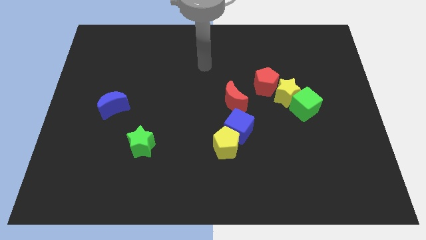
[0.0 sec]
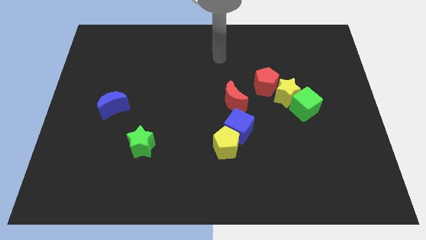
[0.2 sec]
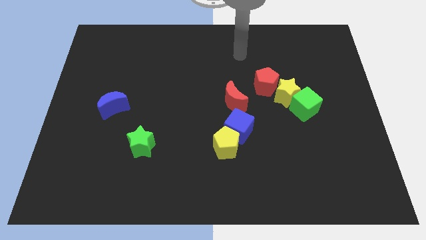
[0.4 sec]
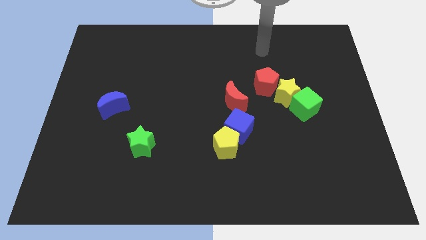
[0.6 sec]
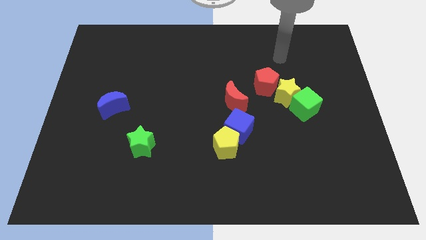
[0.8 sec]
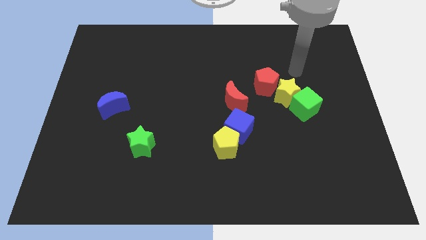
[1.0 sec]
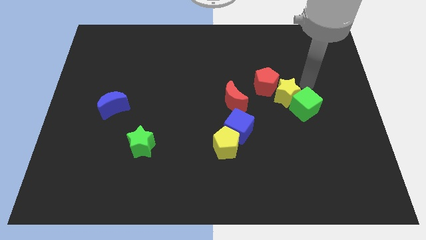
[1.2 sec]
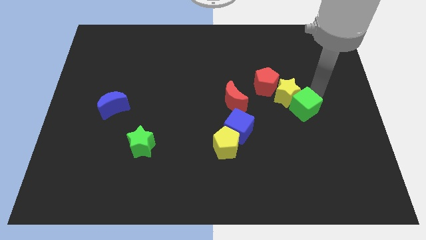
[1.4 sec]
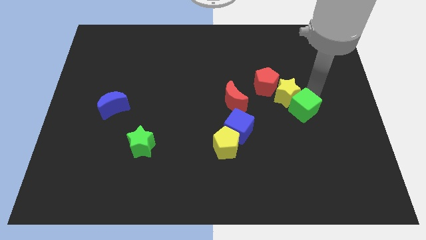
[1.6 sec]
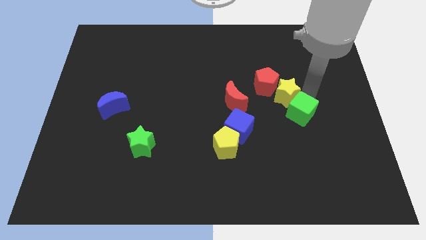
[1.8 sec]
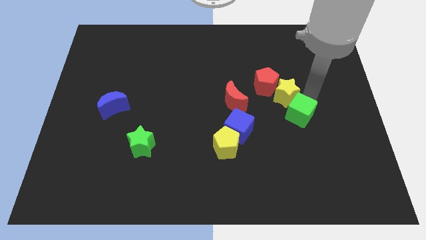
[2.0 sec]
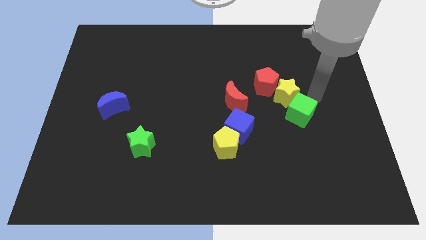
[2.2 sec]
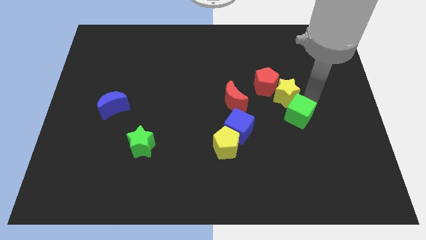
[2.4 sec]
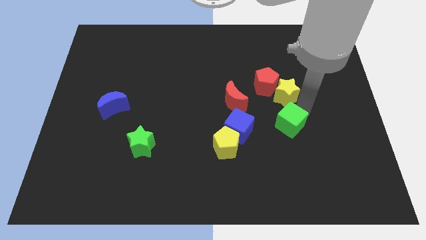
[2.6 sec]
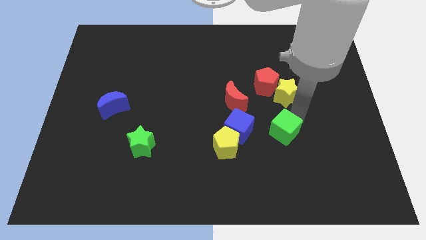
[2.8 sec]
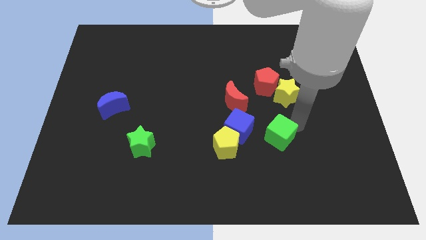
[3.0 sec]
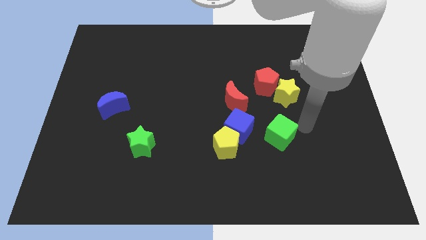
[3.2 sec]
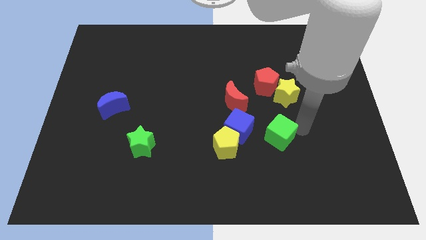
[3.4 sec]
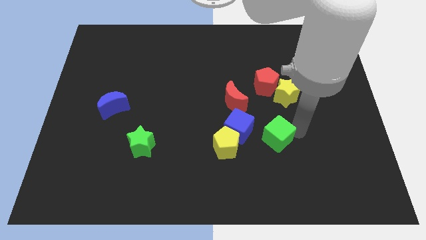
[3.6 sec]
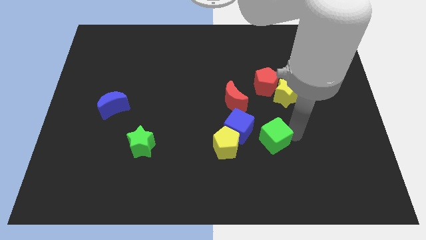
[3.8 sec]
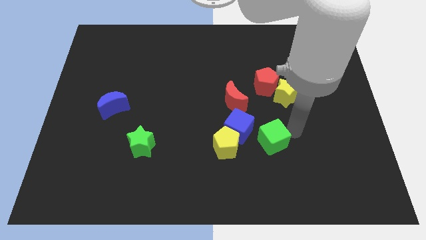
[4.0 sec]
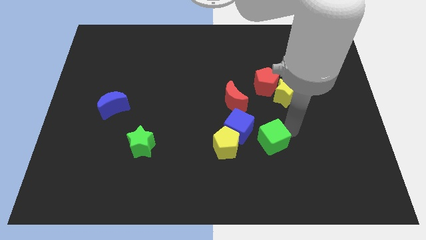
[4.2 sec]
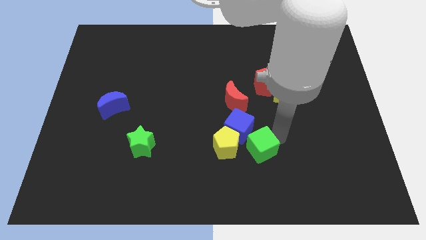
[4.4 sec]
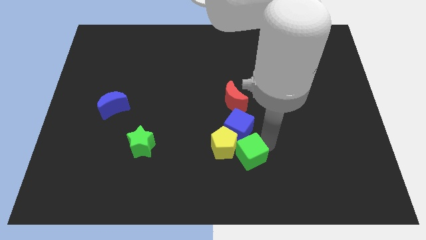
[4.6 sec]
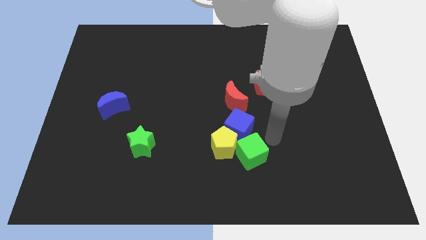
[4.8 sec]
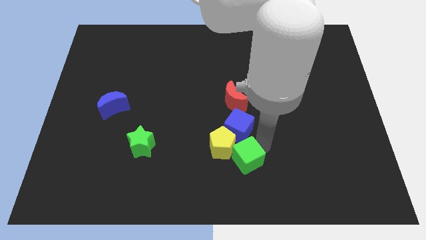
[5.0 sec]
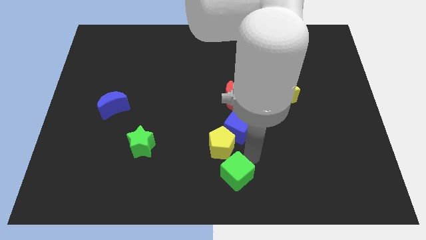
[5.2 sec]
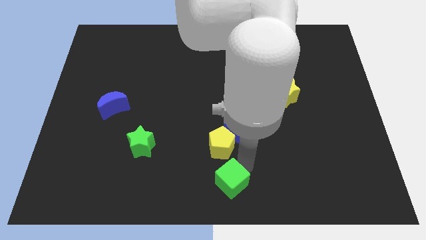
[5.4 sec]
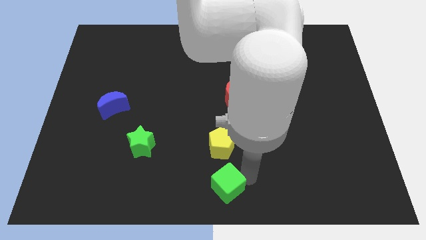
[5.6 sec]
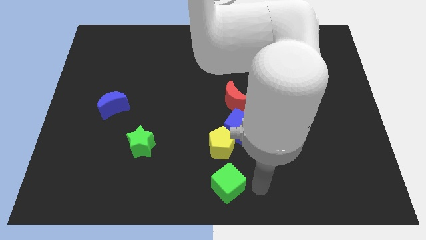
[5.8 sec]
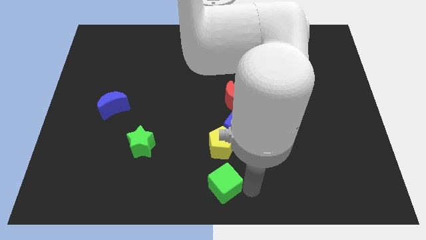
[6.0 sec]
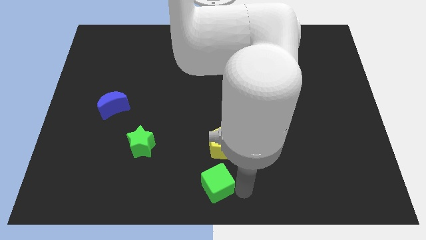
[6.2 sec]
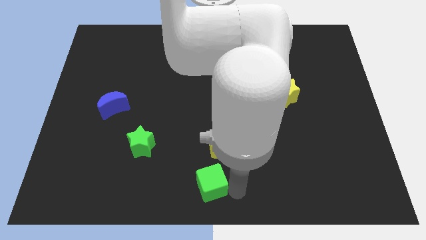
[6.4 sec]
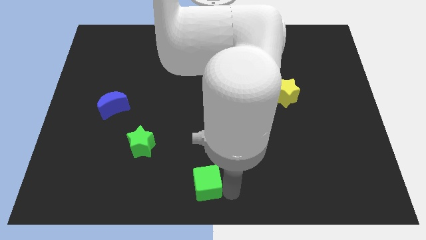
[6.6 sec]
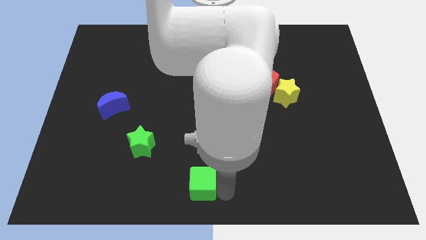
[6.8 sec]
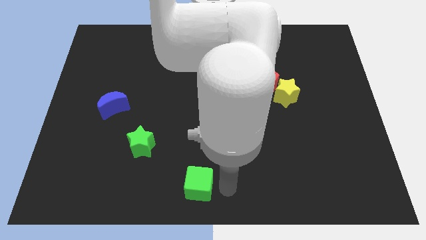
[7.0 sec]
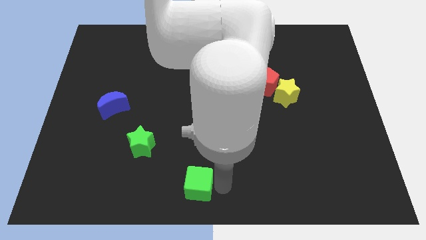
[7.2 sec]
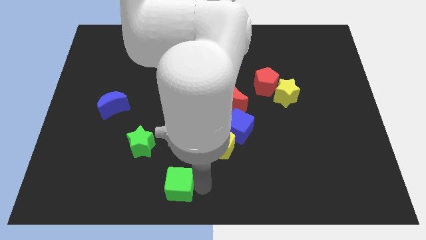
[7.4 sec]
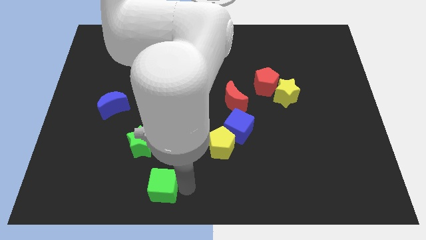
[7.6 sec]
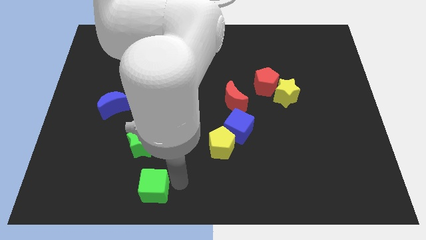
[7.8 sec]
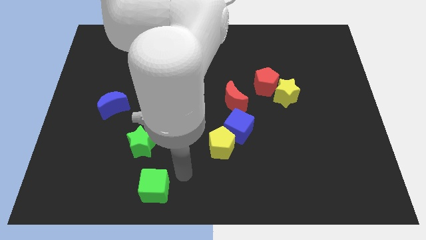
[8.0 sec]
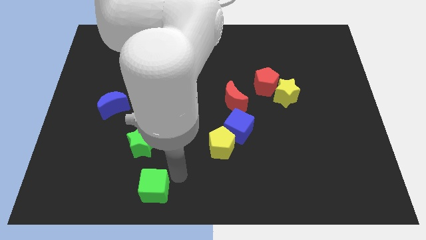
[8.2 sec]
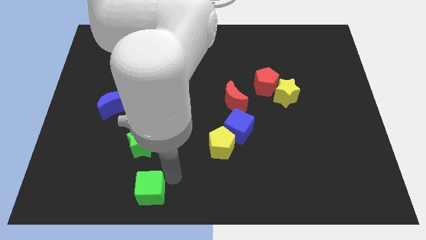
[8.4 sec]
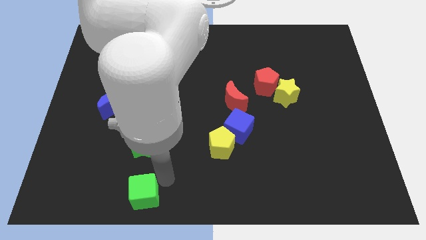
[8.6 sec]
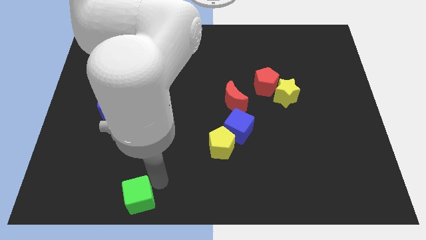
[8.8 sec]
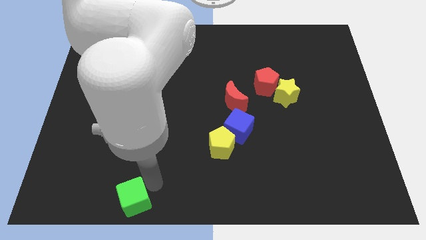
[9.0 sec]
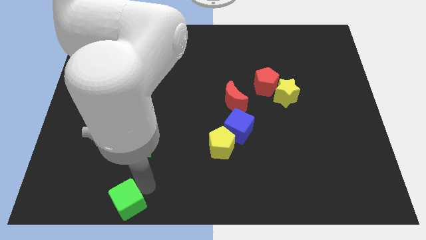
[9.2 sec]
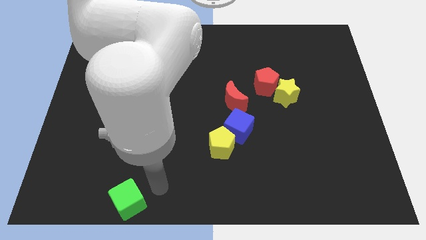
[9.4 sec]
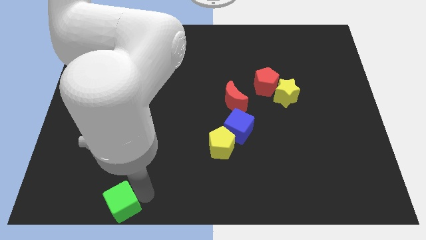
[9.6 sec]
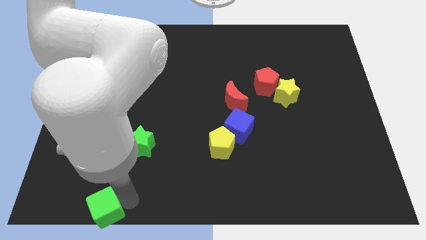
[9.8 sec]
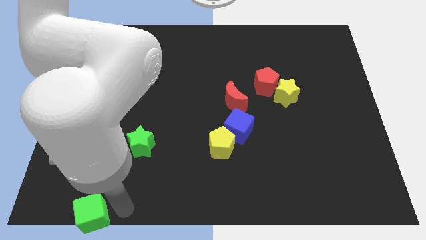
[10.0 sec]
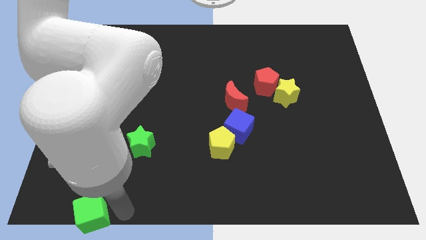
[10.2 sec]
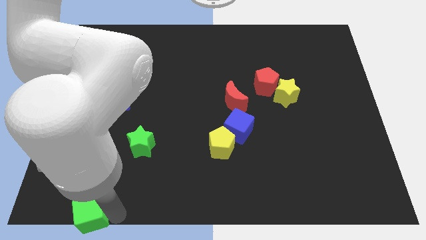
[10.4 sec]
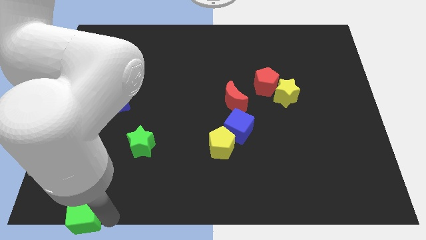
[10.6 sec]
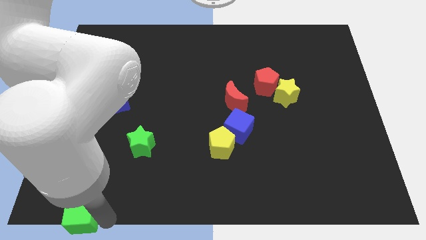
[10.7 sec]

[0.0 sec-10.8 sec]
put the green cube to the bottom left of the board
